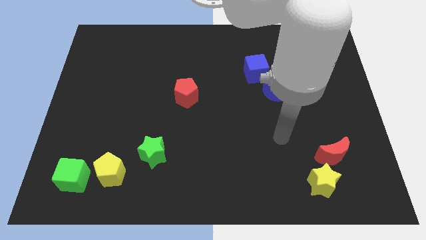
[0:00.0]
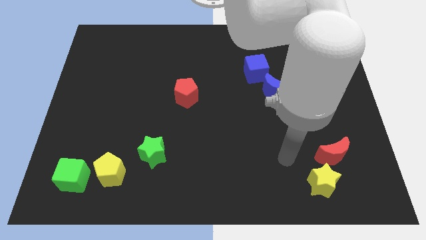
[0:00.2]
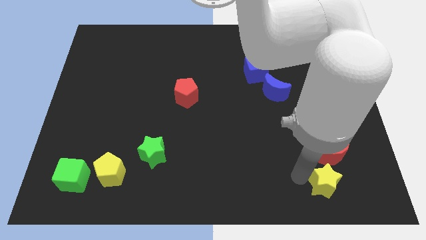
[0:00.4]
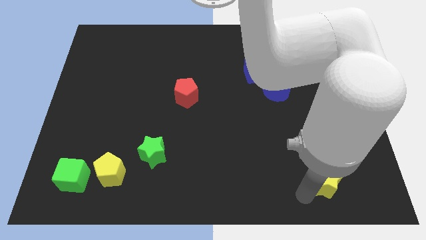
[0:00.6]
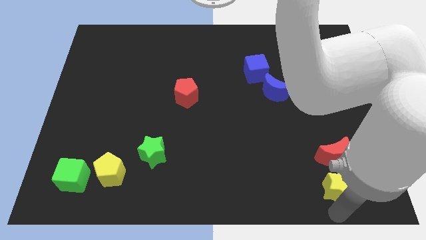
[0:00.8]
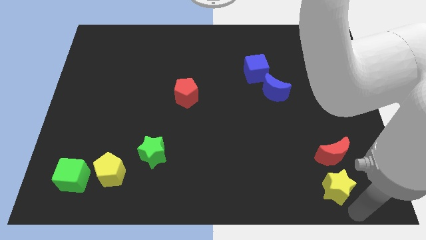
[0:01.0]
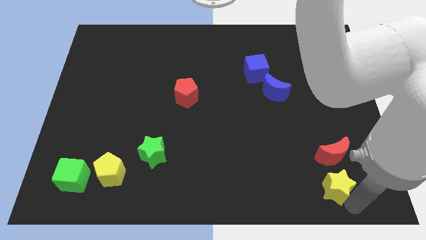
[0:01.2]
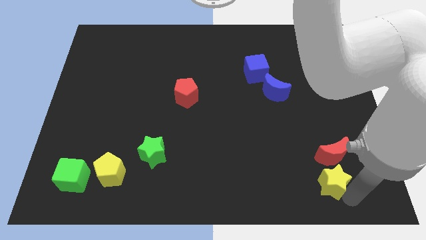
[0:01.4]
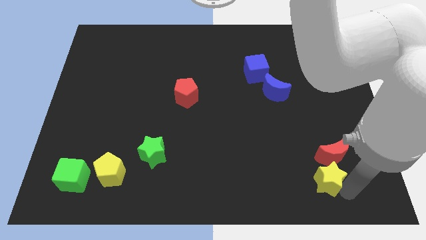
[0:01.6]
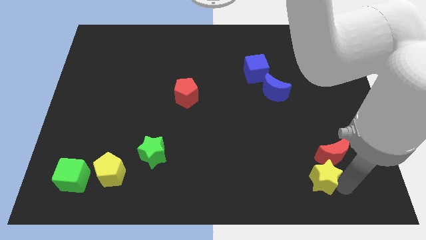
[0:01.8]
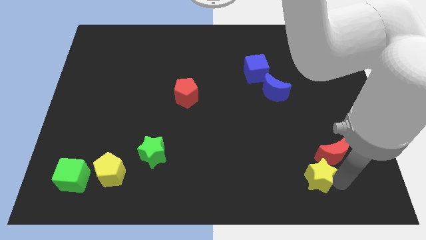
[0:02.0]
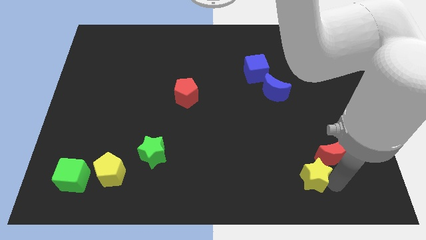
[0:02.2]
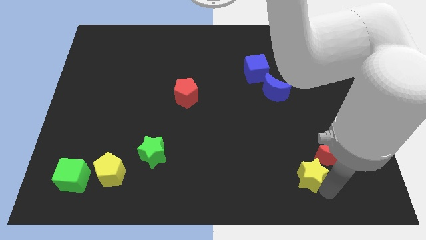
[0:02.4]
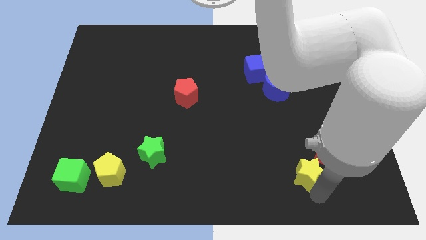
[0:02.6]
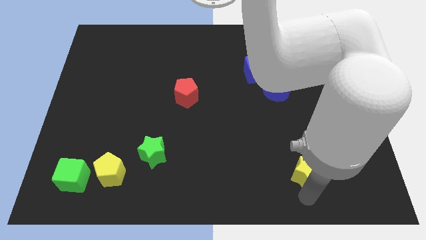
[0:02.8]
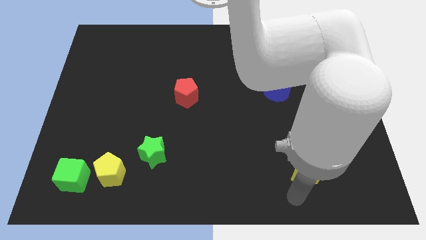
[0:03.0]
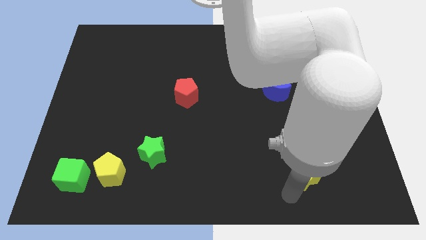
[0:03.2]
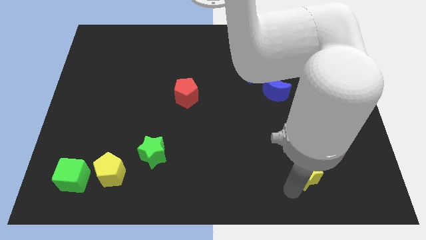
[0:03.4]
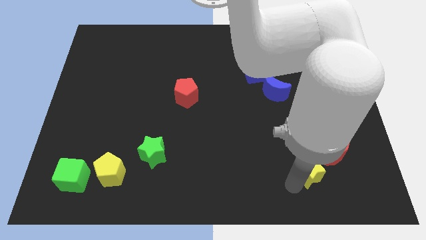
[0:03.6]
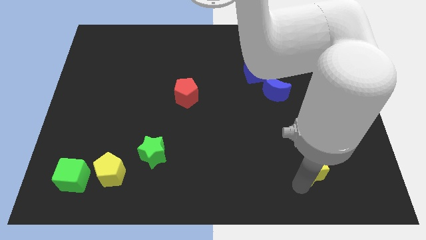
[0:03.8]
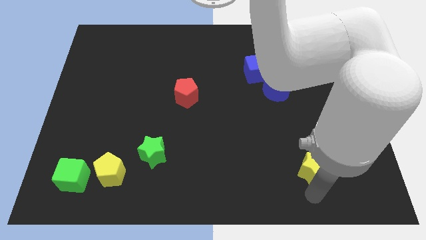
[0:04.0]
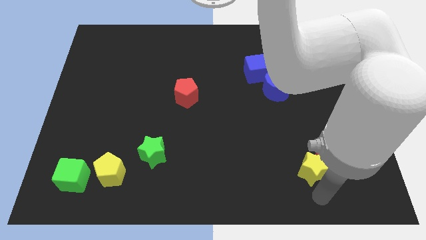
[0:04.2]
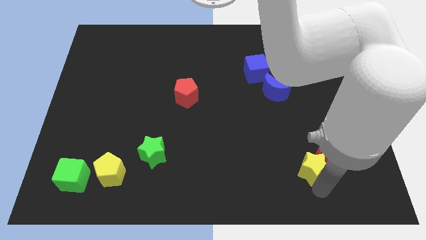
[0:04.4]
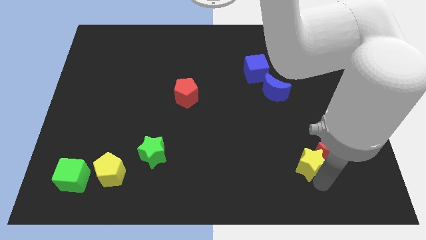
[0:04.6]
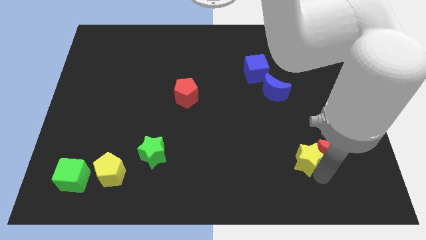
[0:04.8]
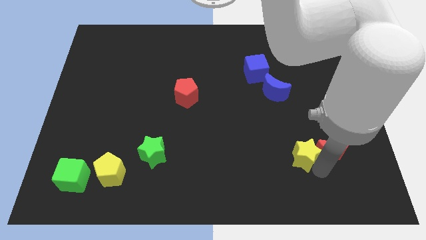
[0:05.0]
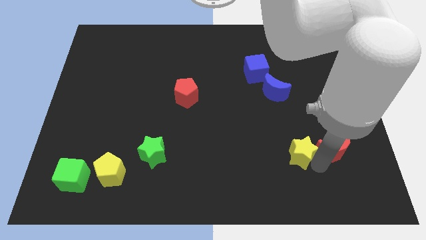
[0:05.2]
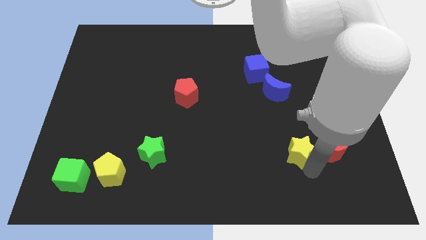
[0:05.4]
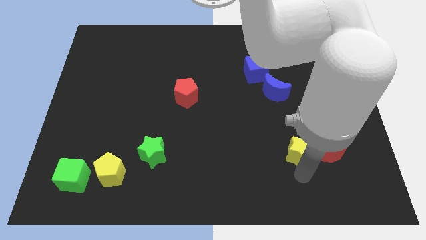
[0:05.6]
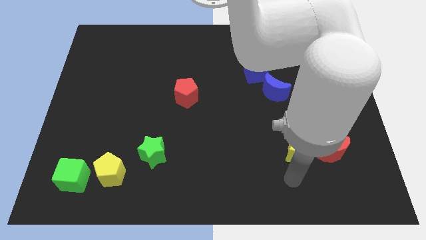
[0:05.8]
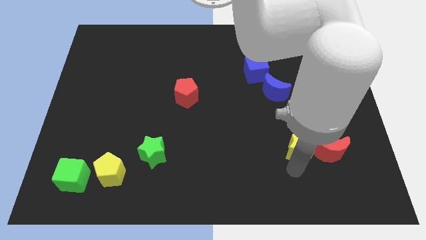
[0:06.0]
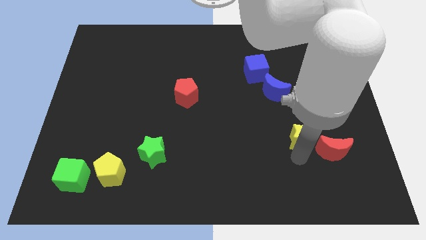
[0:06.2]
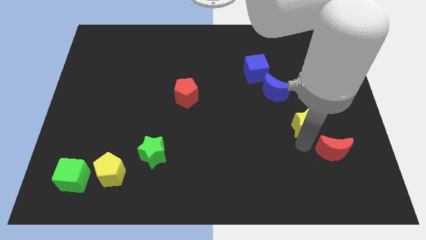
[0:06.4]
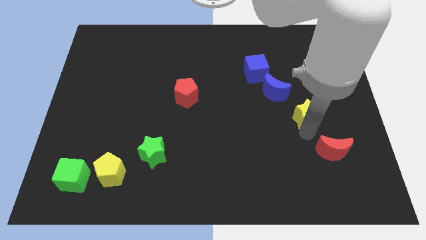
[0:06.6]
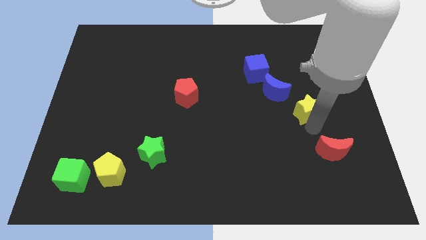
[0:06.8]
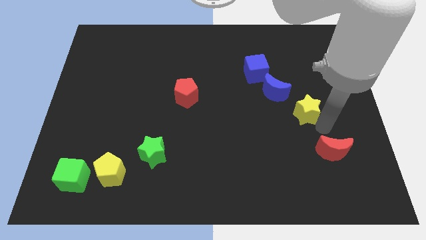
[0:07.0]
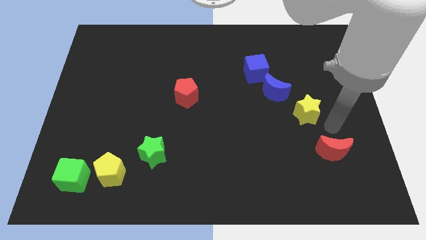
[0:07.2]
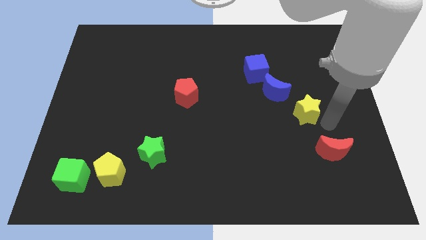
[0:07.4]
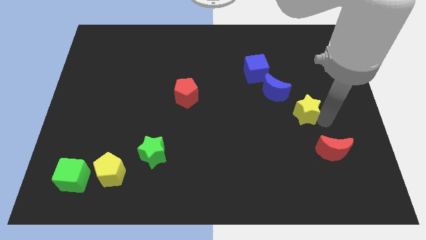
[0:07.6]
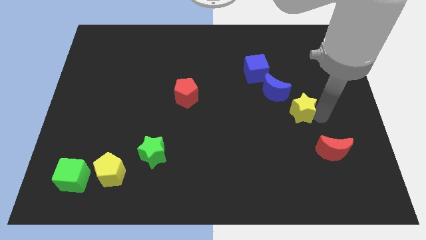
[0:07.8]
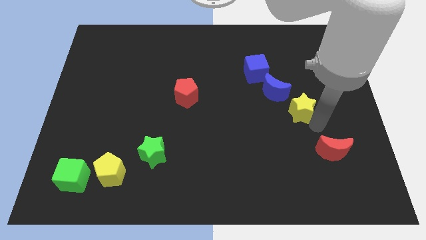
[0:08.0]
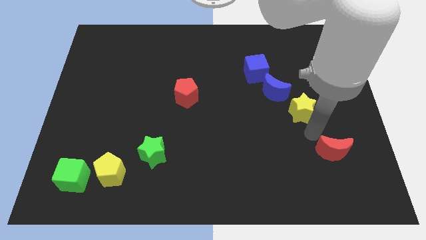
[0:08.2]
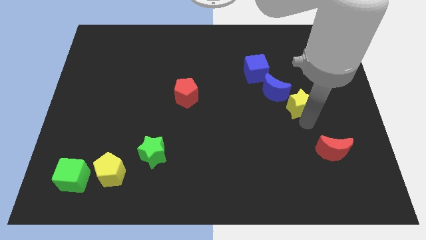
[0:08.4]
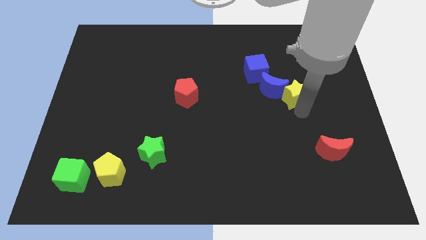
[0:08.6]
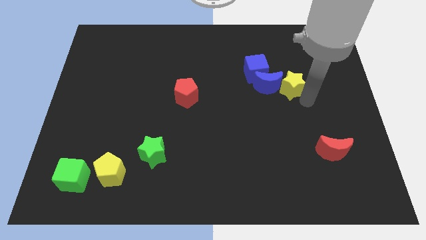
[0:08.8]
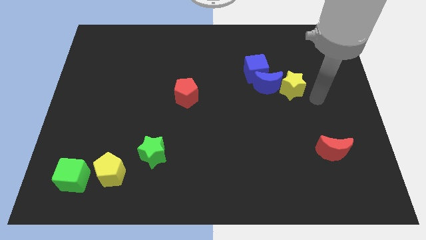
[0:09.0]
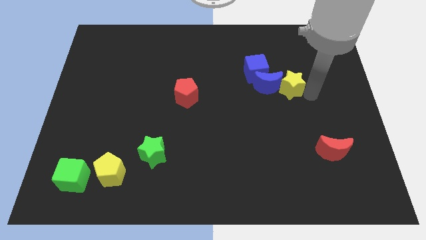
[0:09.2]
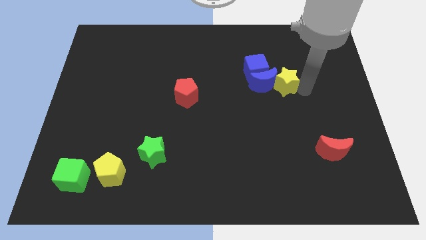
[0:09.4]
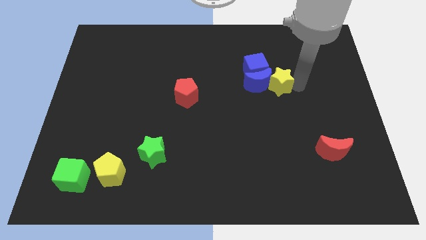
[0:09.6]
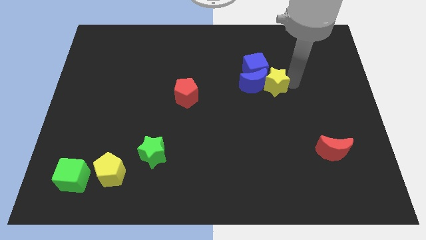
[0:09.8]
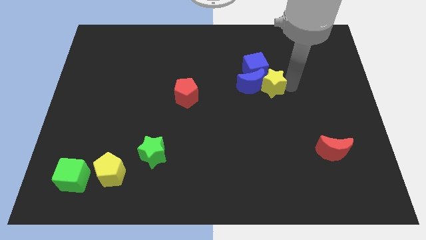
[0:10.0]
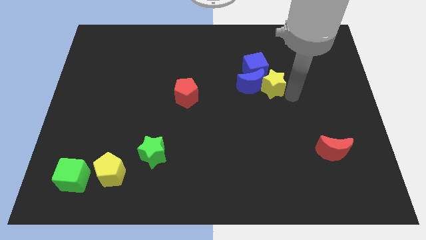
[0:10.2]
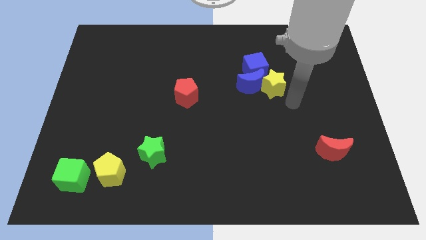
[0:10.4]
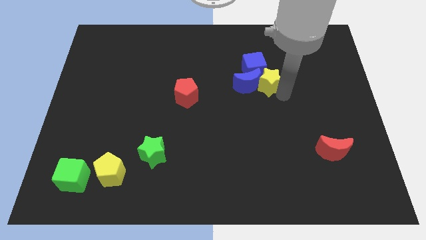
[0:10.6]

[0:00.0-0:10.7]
slide the yellow star close to the blue cube
